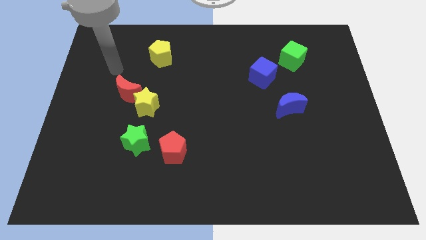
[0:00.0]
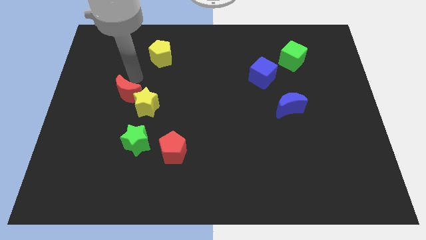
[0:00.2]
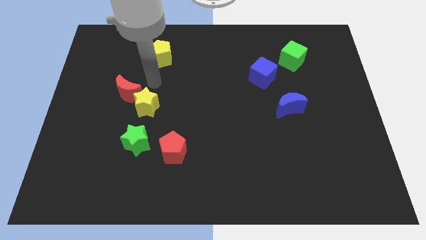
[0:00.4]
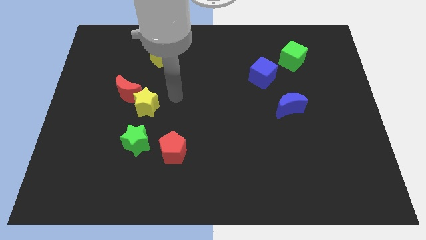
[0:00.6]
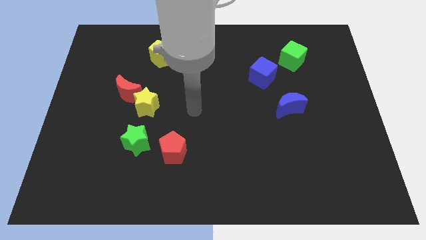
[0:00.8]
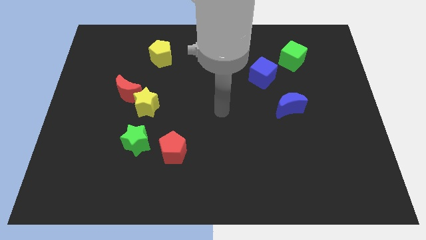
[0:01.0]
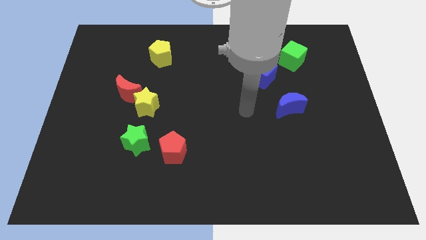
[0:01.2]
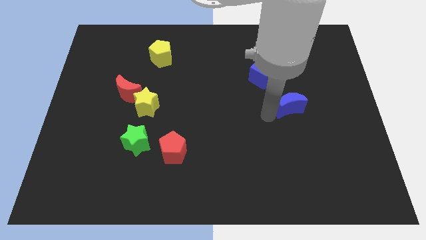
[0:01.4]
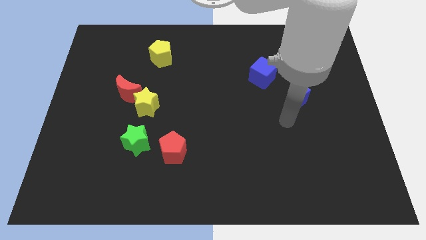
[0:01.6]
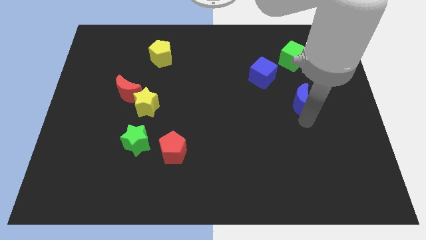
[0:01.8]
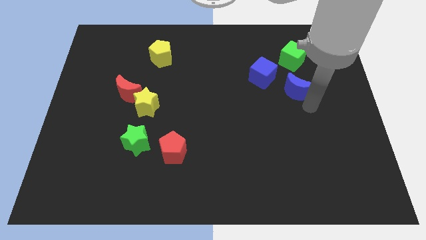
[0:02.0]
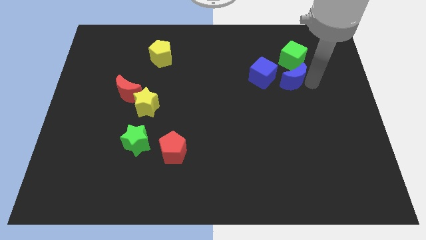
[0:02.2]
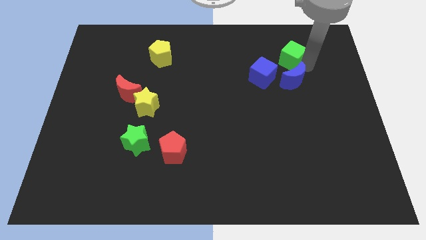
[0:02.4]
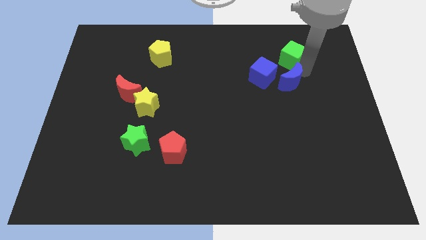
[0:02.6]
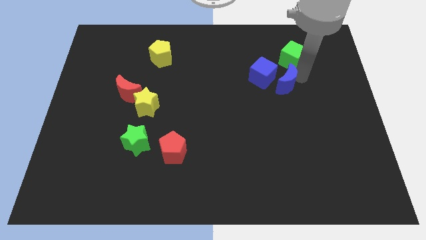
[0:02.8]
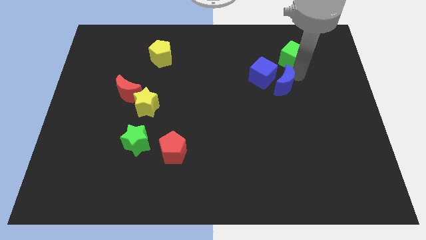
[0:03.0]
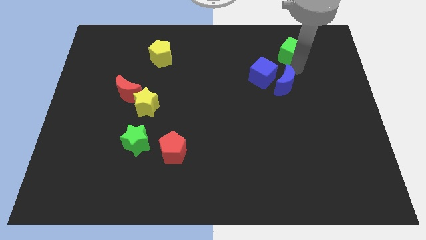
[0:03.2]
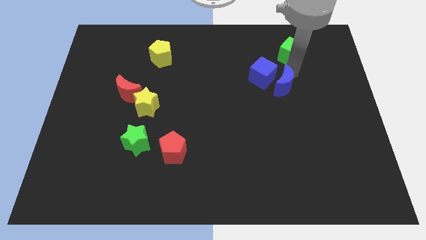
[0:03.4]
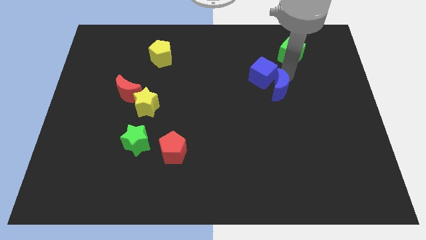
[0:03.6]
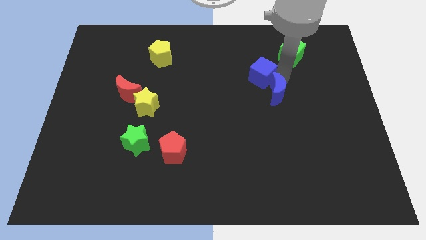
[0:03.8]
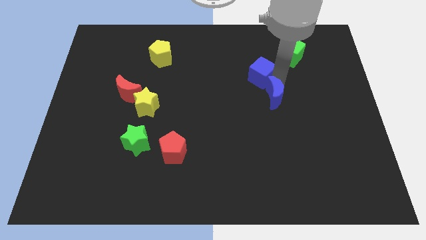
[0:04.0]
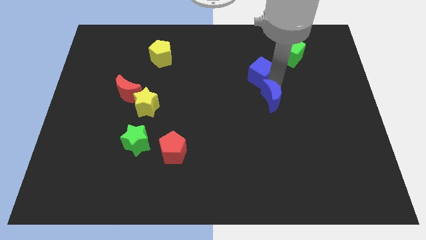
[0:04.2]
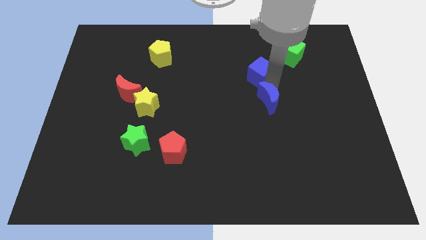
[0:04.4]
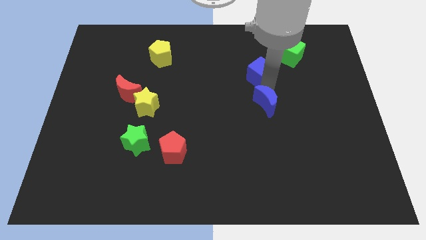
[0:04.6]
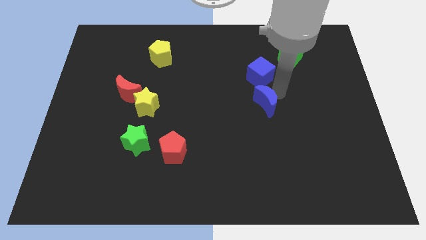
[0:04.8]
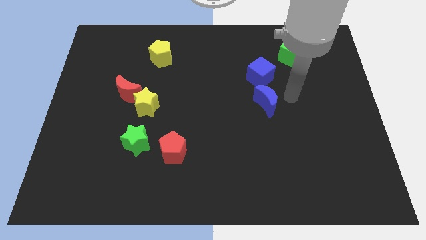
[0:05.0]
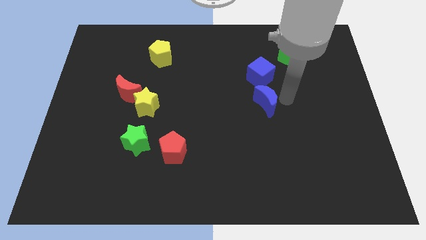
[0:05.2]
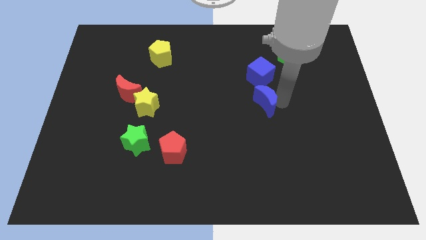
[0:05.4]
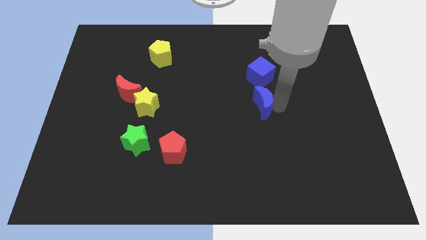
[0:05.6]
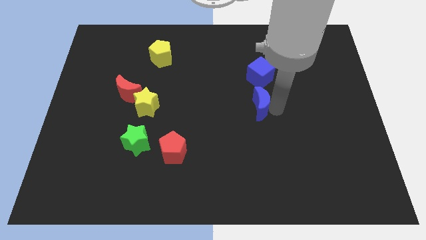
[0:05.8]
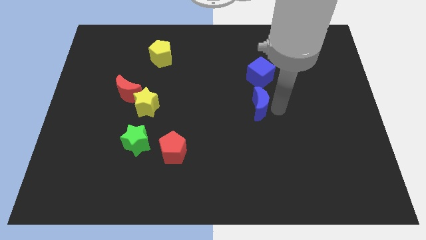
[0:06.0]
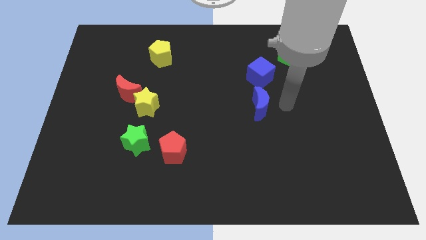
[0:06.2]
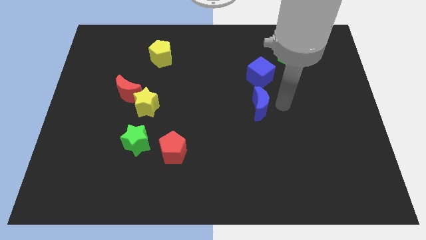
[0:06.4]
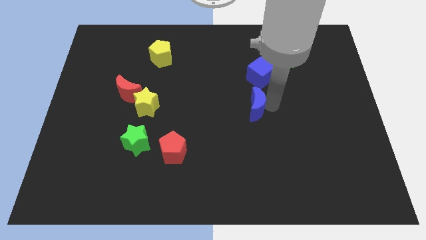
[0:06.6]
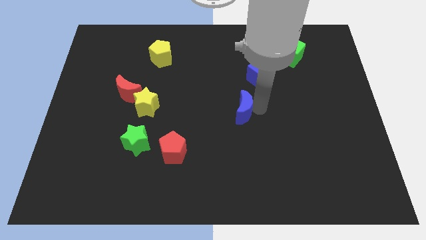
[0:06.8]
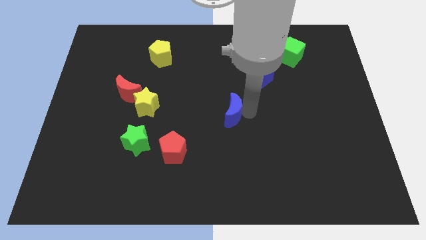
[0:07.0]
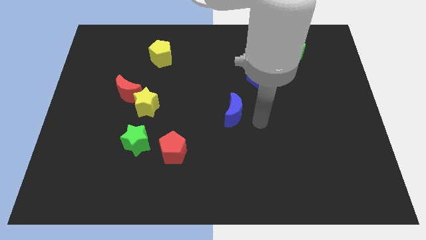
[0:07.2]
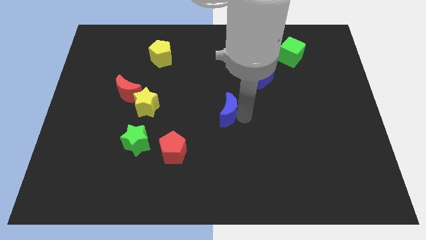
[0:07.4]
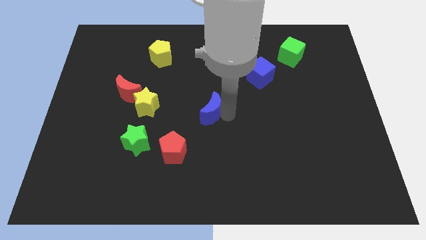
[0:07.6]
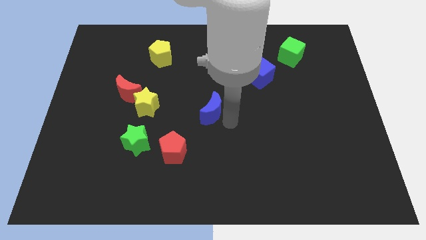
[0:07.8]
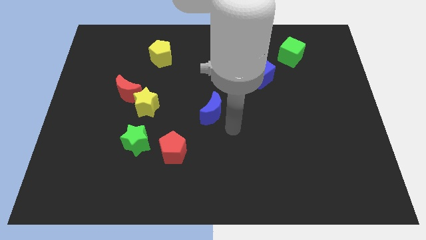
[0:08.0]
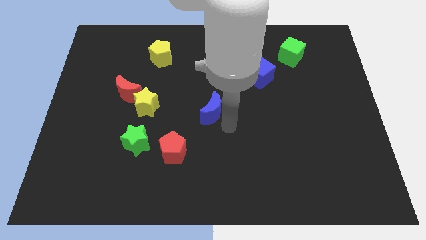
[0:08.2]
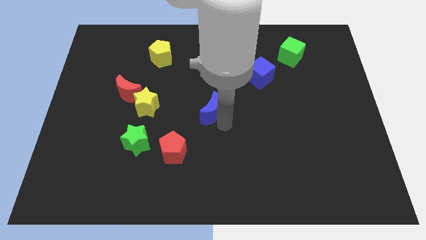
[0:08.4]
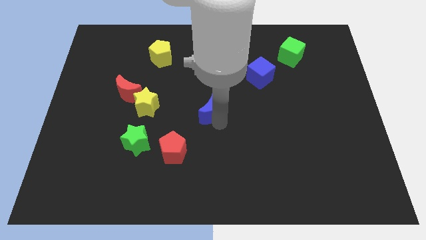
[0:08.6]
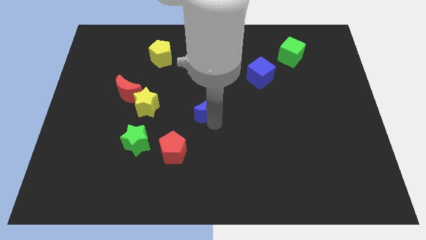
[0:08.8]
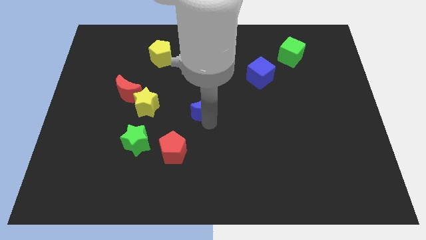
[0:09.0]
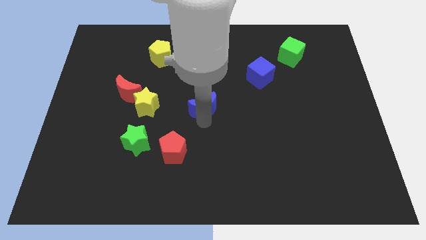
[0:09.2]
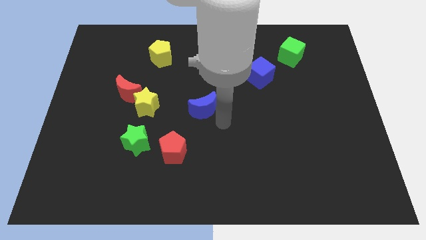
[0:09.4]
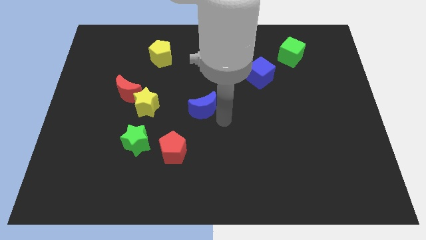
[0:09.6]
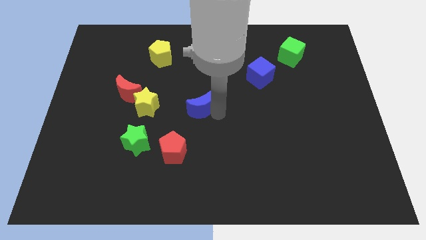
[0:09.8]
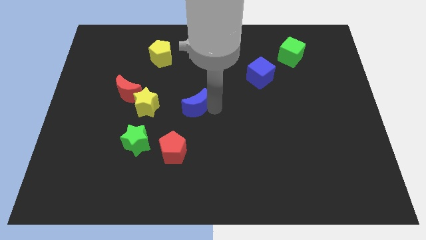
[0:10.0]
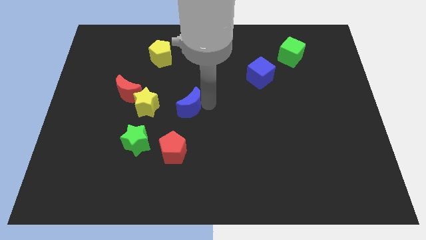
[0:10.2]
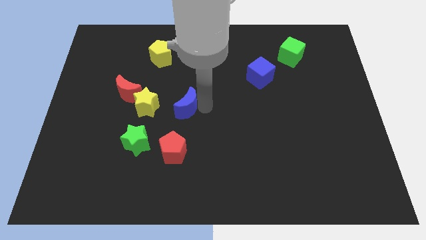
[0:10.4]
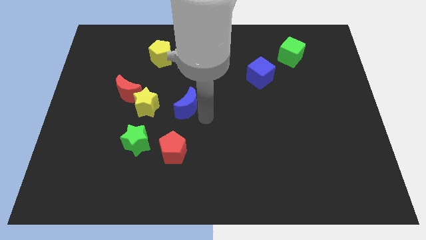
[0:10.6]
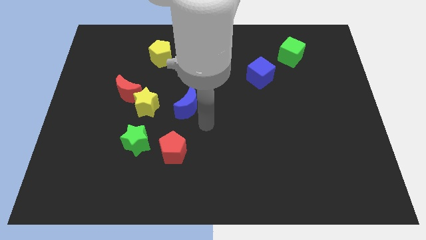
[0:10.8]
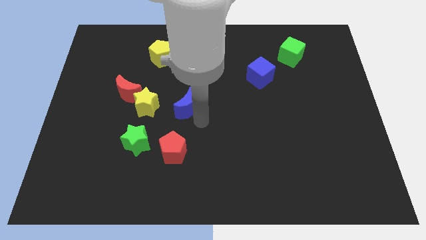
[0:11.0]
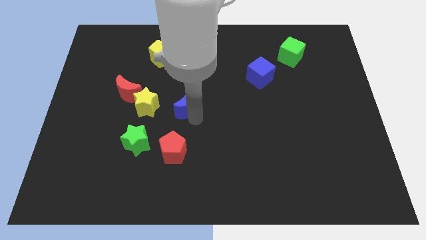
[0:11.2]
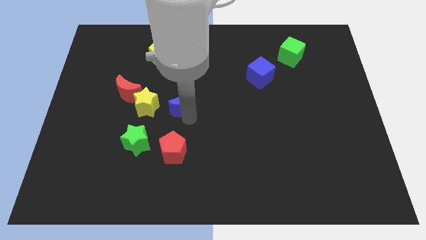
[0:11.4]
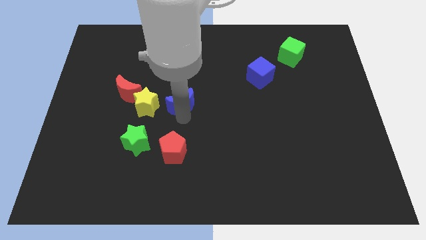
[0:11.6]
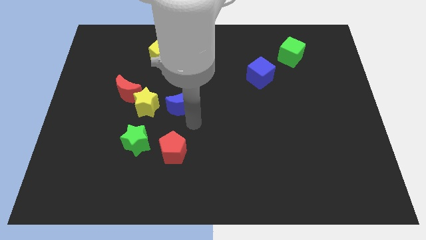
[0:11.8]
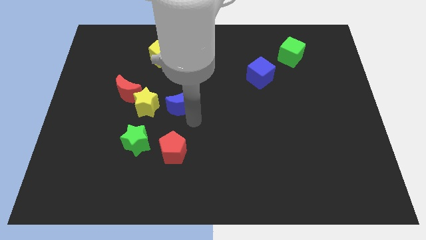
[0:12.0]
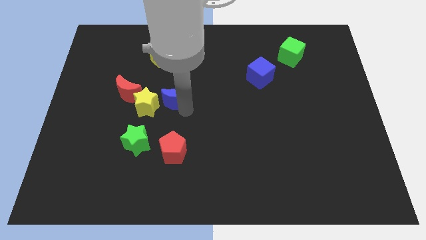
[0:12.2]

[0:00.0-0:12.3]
move the blue moon to the top right side of the yellow star
